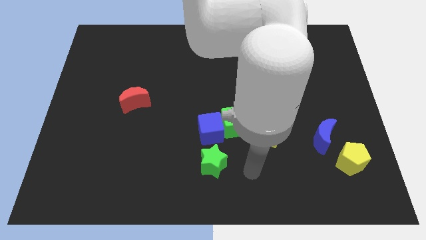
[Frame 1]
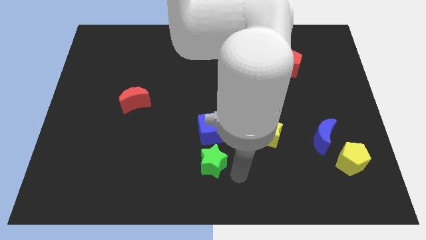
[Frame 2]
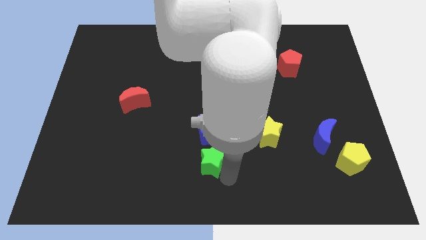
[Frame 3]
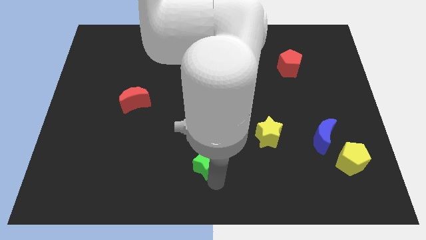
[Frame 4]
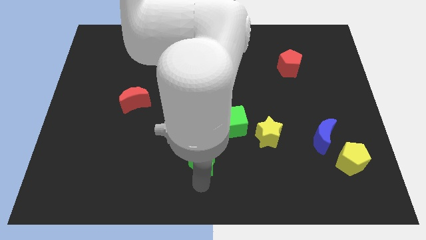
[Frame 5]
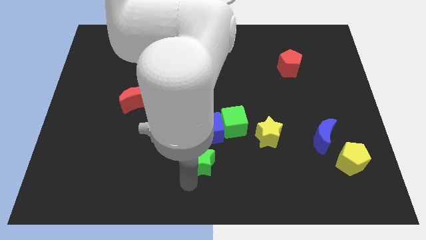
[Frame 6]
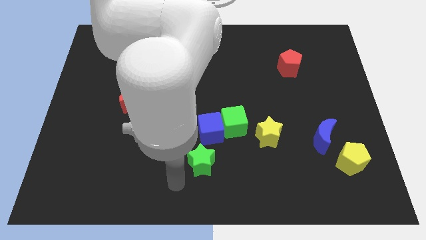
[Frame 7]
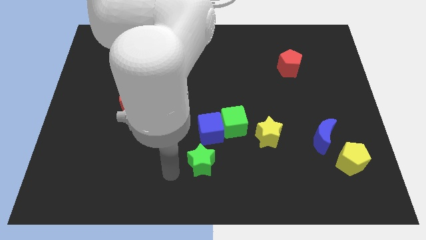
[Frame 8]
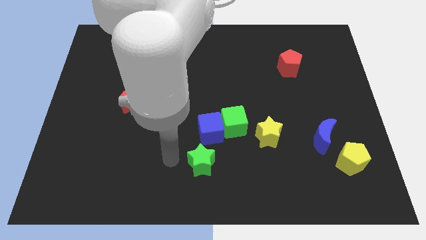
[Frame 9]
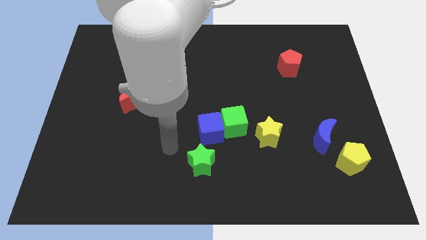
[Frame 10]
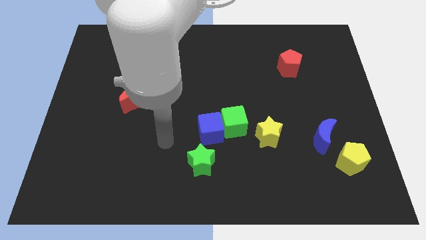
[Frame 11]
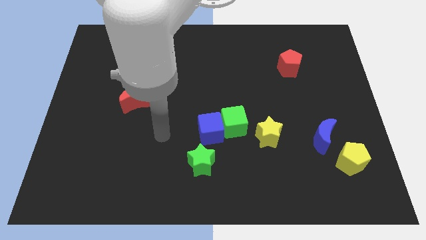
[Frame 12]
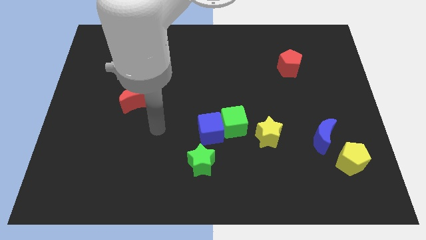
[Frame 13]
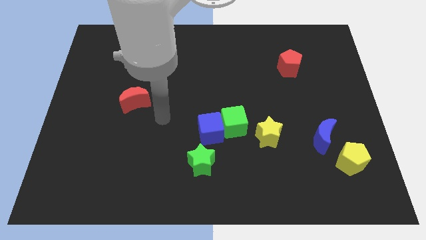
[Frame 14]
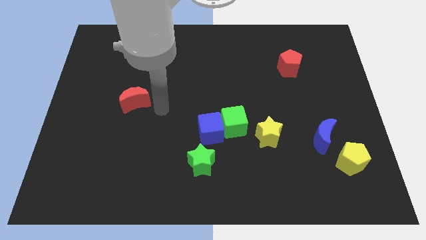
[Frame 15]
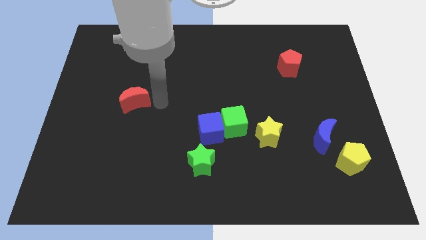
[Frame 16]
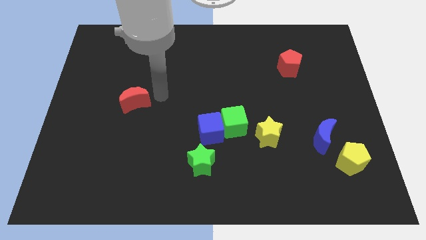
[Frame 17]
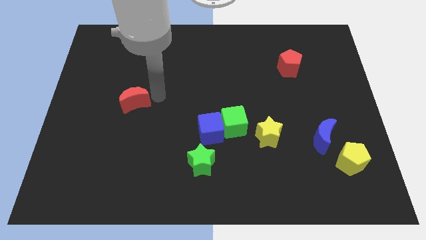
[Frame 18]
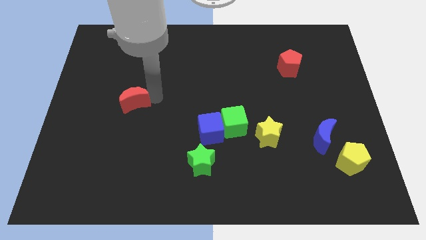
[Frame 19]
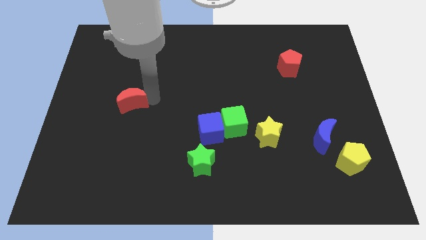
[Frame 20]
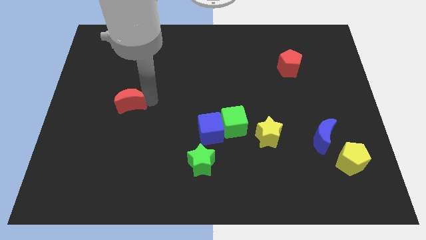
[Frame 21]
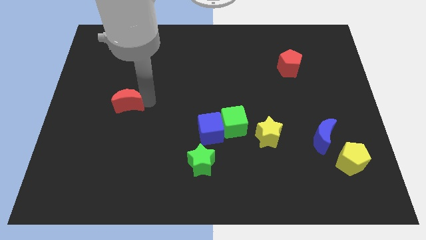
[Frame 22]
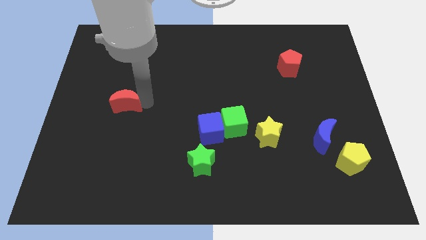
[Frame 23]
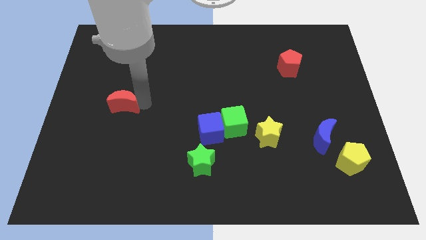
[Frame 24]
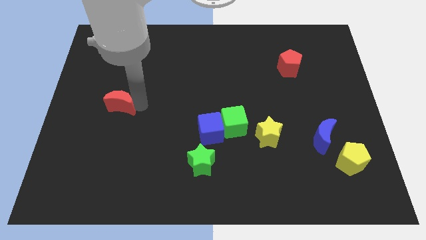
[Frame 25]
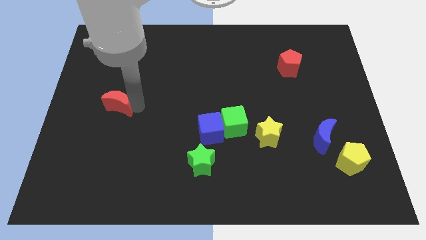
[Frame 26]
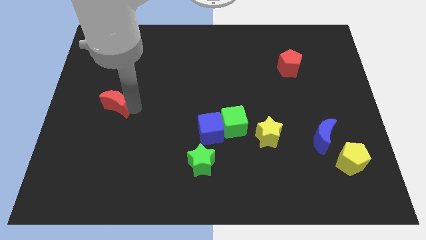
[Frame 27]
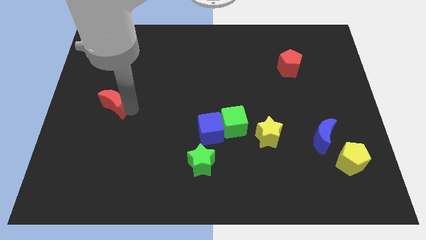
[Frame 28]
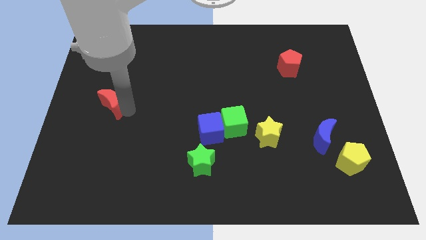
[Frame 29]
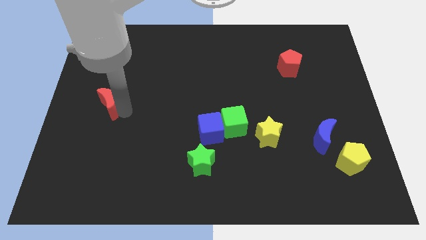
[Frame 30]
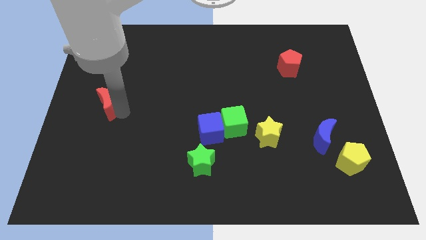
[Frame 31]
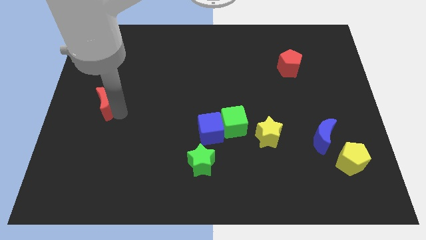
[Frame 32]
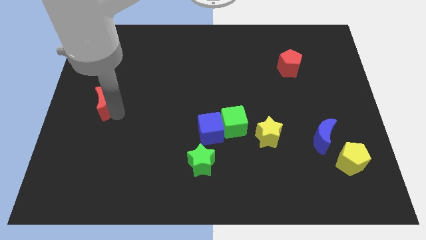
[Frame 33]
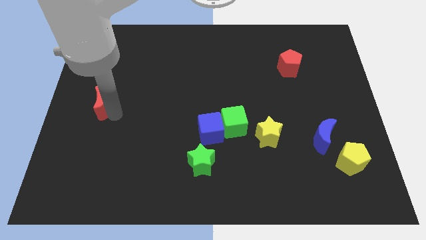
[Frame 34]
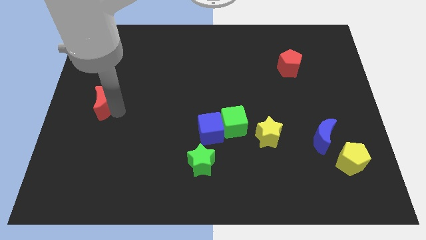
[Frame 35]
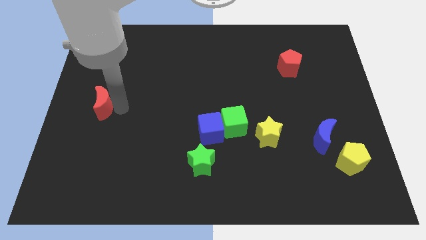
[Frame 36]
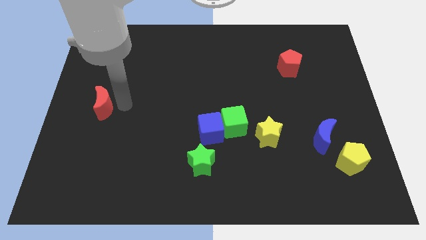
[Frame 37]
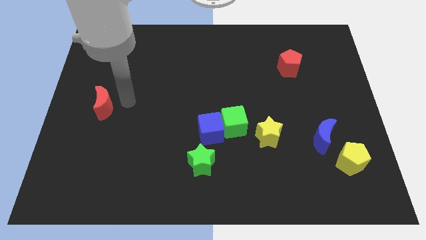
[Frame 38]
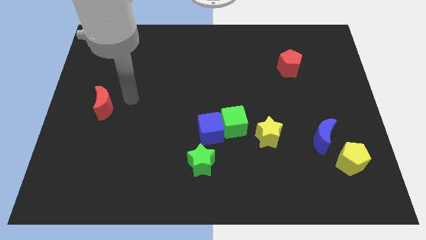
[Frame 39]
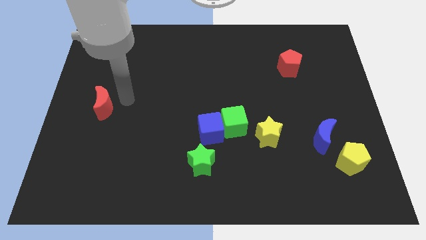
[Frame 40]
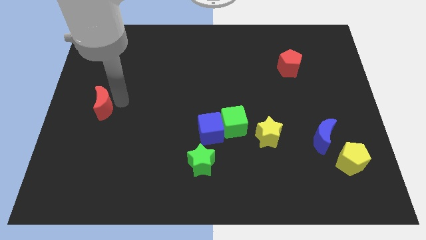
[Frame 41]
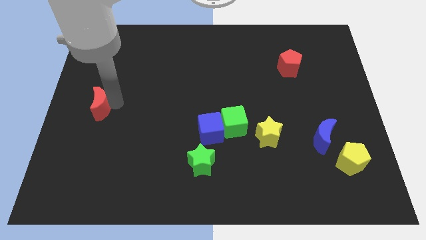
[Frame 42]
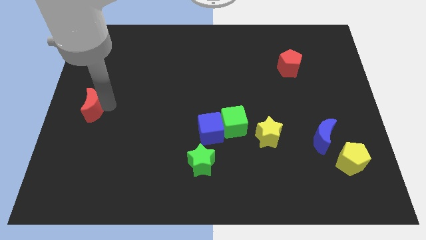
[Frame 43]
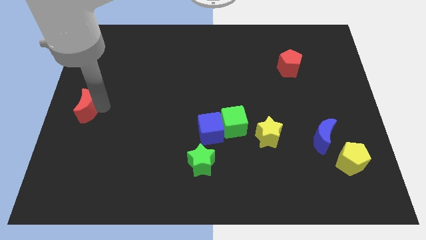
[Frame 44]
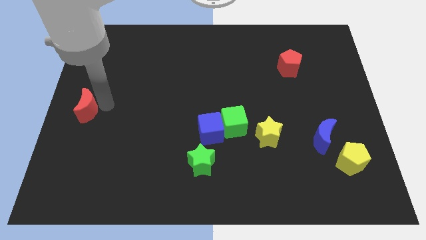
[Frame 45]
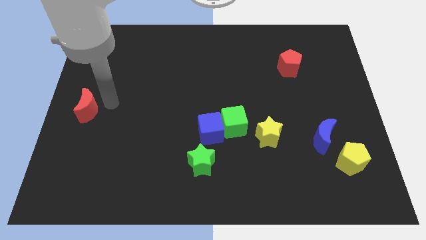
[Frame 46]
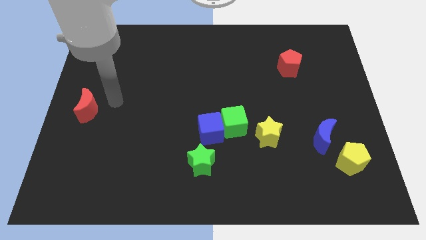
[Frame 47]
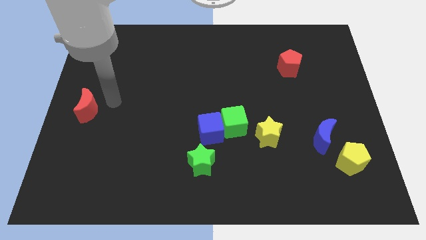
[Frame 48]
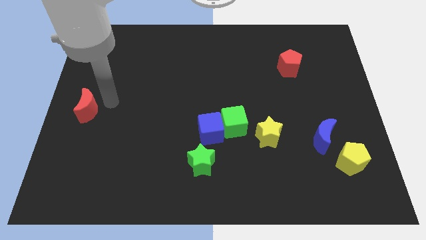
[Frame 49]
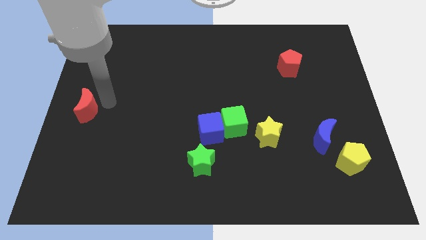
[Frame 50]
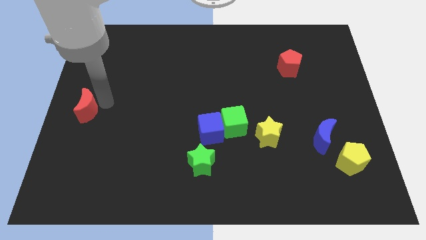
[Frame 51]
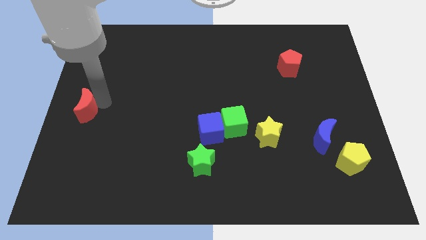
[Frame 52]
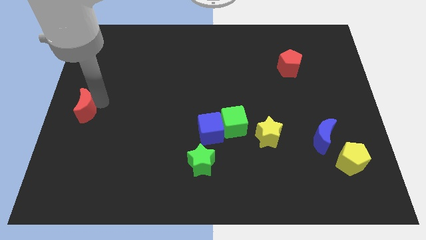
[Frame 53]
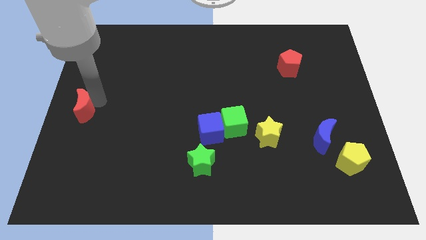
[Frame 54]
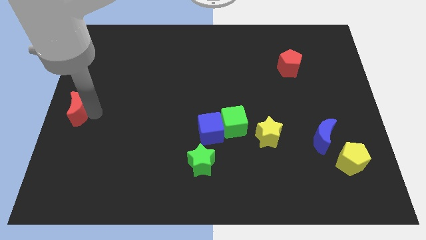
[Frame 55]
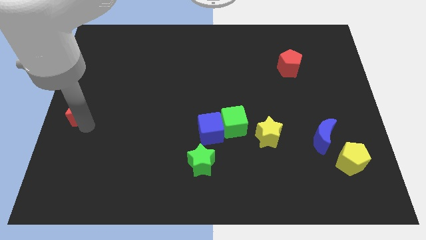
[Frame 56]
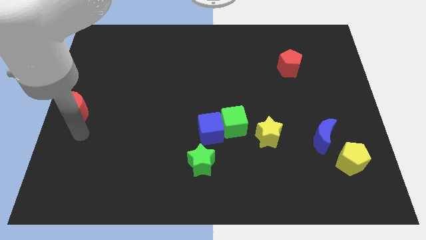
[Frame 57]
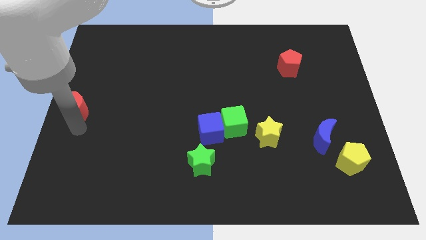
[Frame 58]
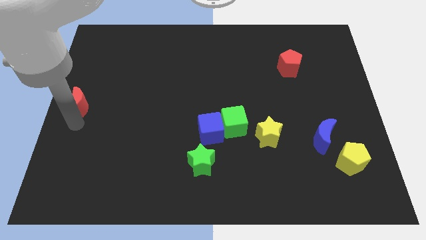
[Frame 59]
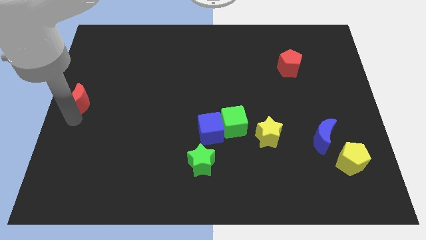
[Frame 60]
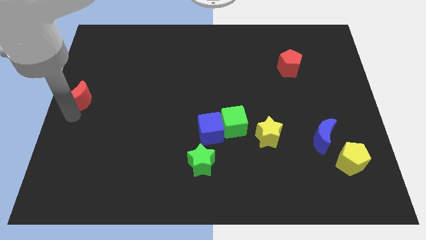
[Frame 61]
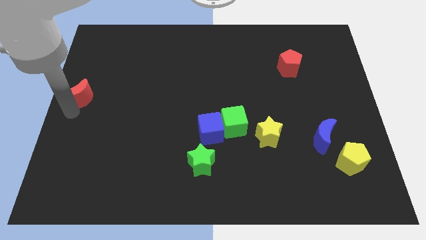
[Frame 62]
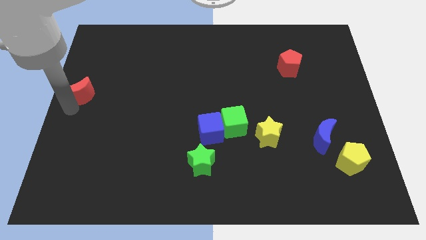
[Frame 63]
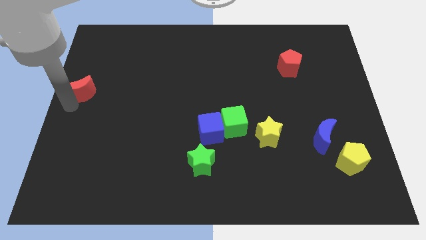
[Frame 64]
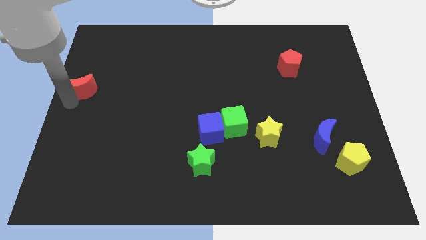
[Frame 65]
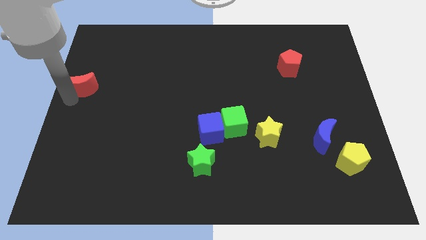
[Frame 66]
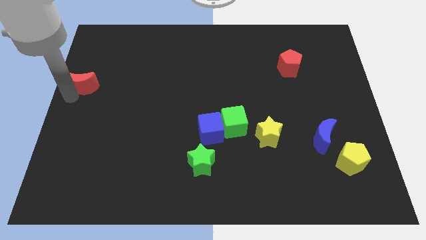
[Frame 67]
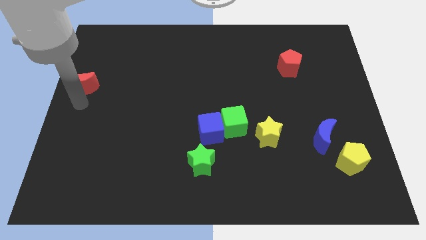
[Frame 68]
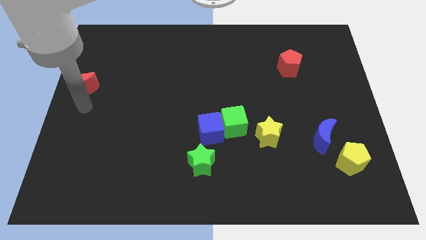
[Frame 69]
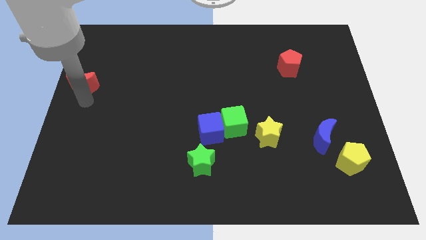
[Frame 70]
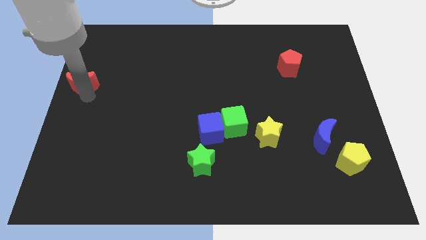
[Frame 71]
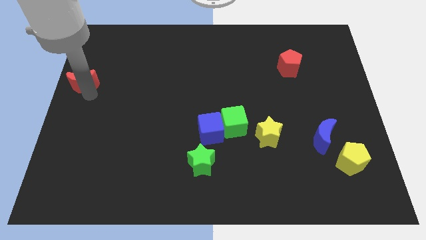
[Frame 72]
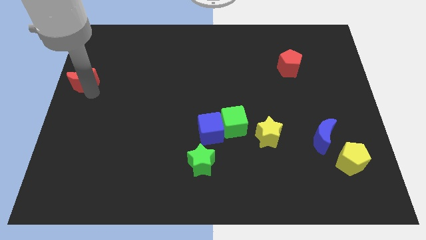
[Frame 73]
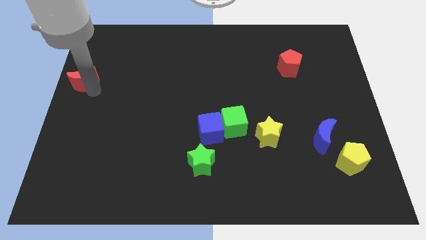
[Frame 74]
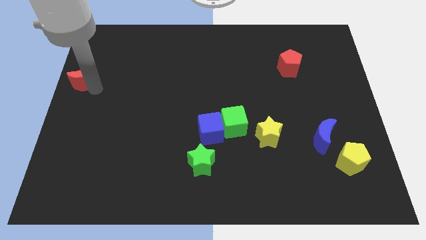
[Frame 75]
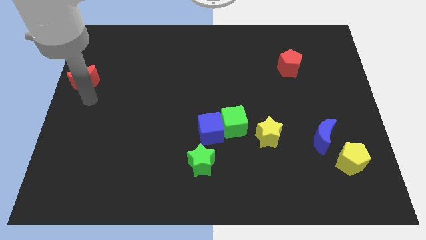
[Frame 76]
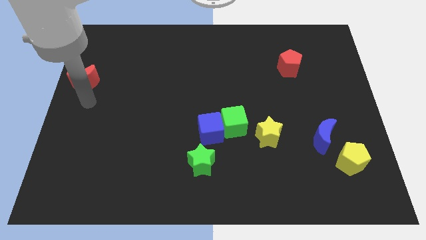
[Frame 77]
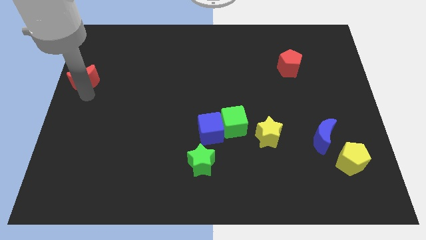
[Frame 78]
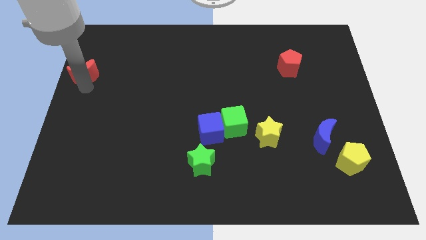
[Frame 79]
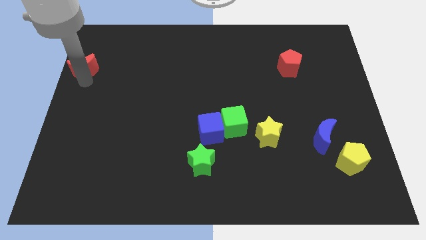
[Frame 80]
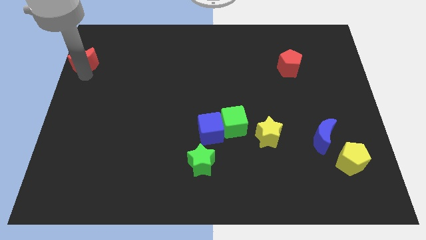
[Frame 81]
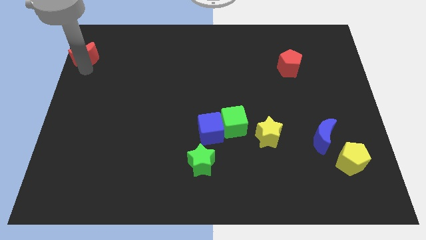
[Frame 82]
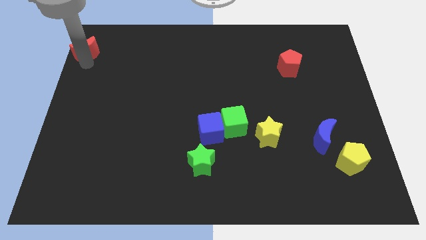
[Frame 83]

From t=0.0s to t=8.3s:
slide the red moon to the top left corner
